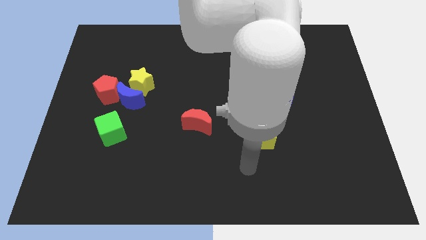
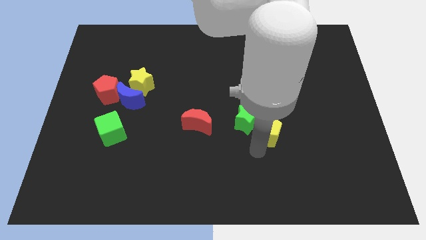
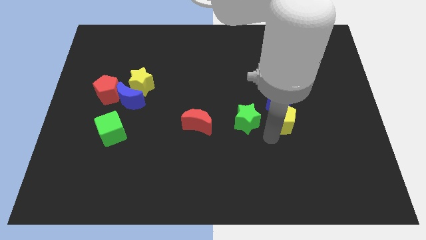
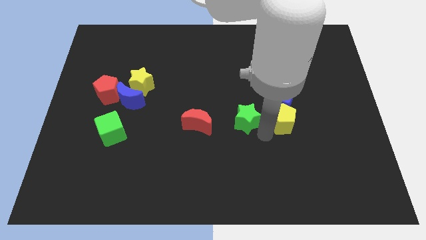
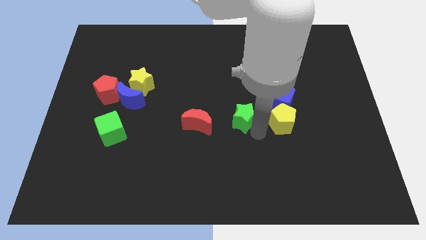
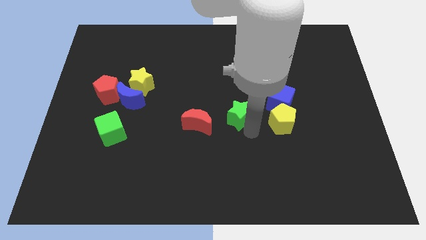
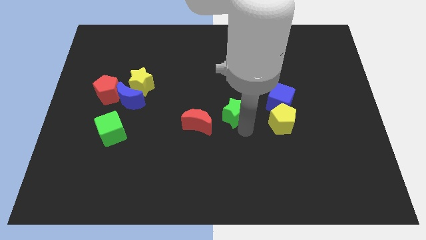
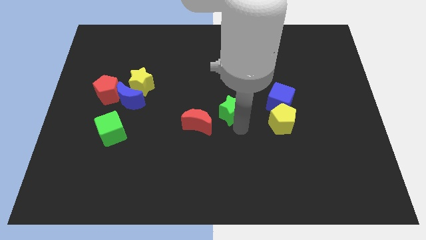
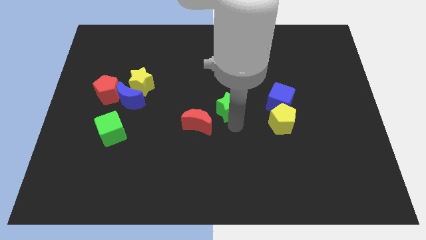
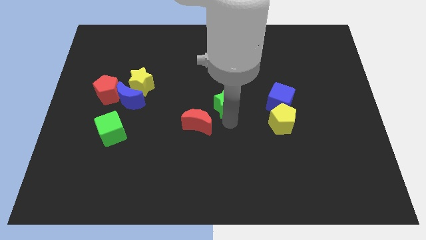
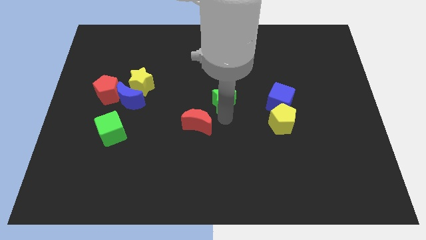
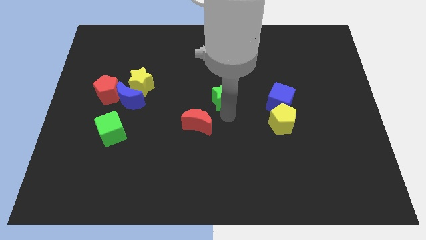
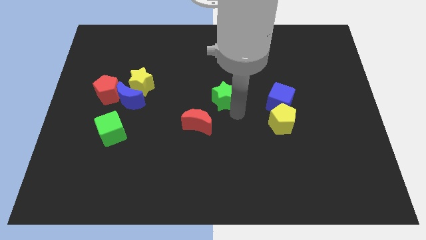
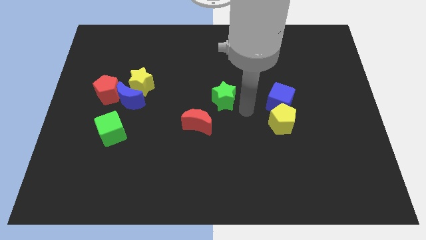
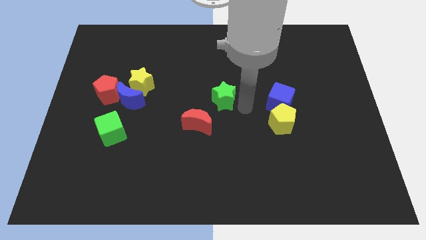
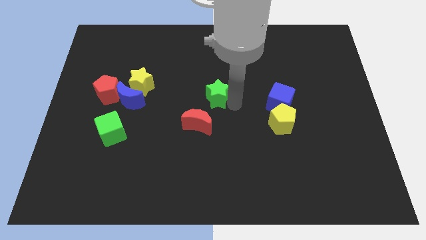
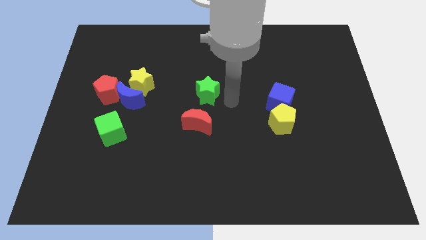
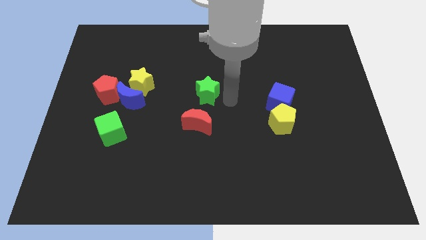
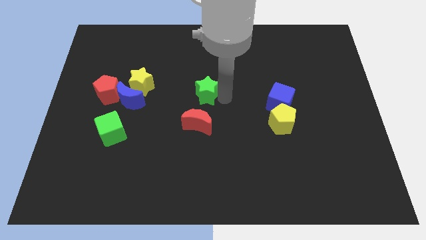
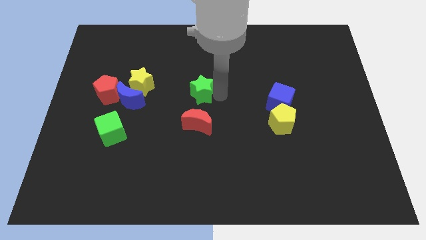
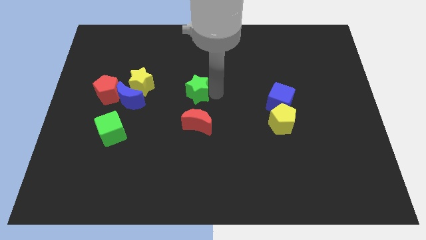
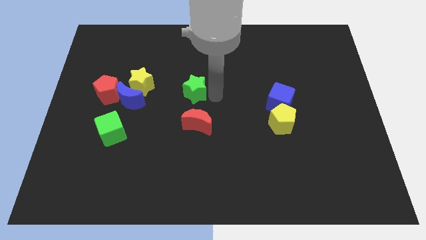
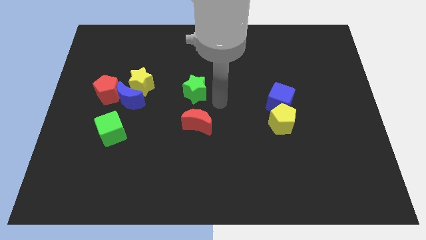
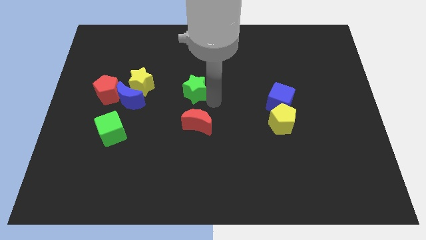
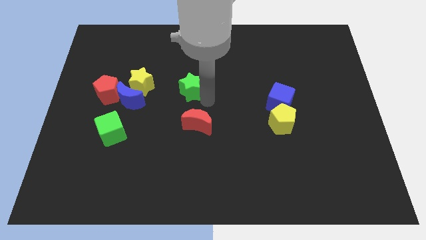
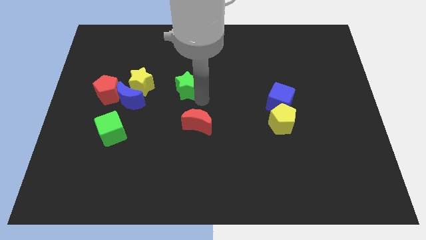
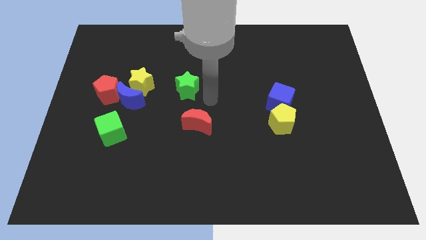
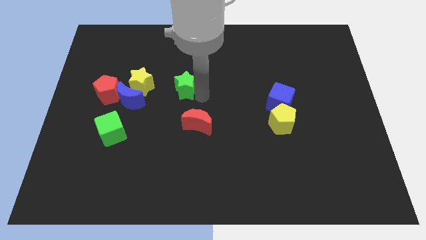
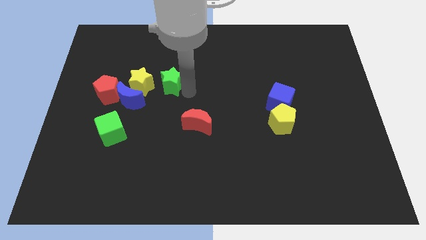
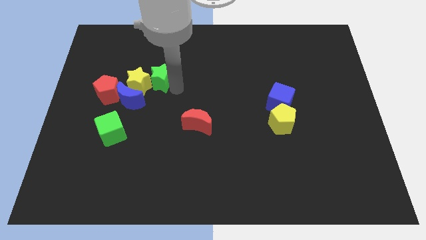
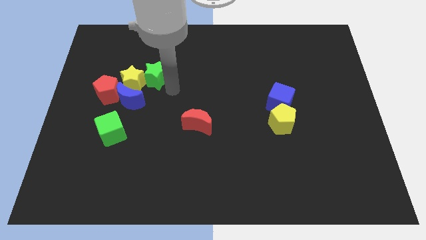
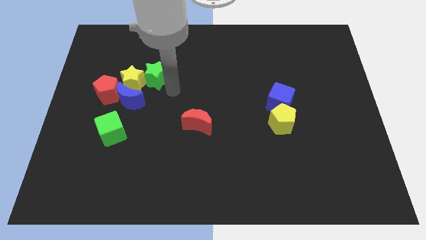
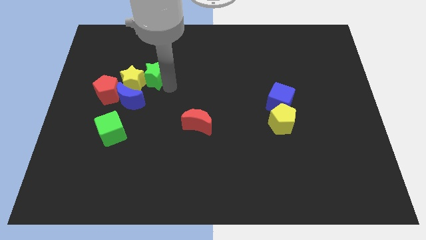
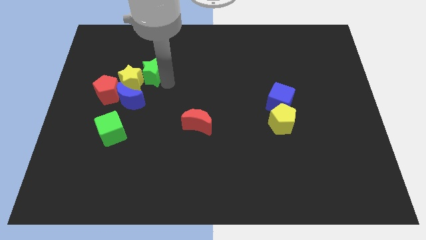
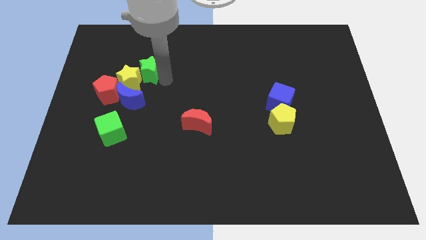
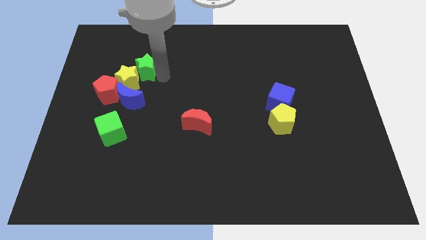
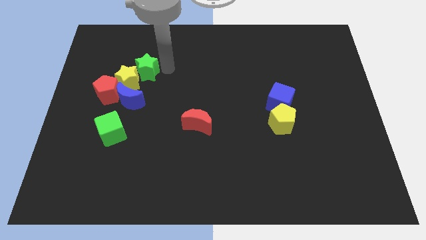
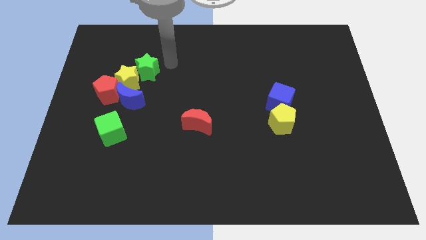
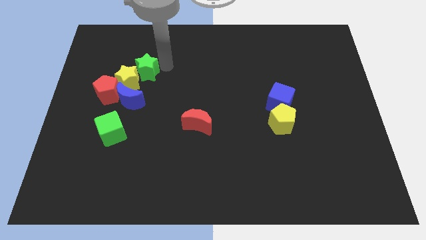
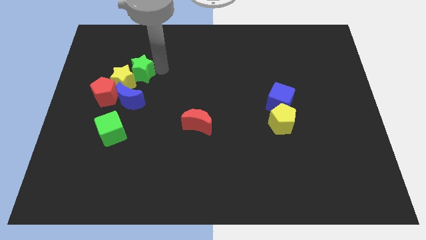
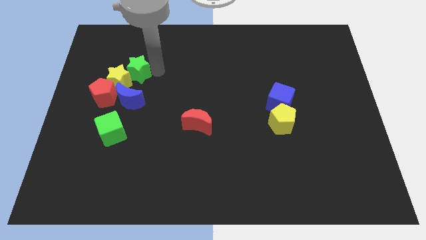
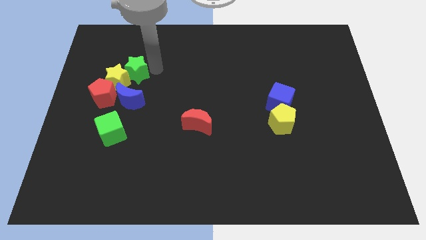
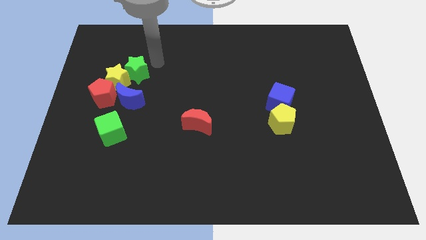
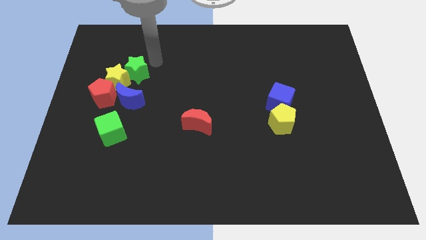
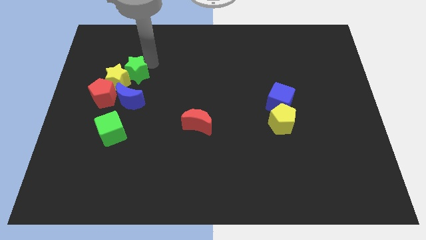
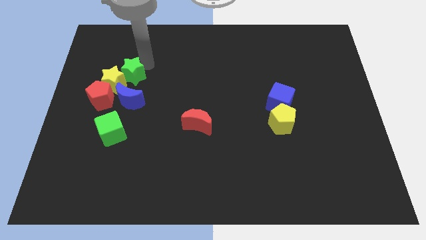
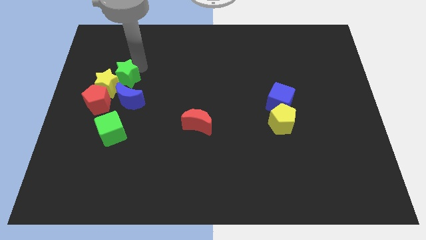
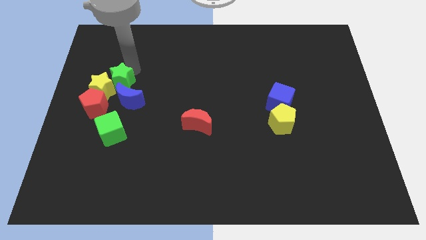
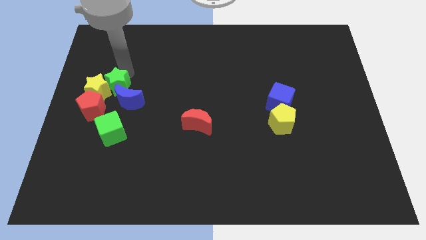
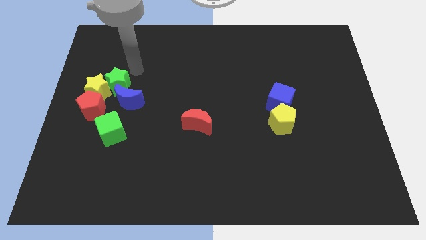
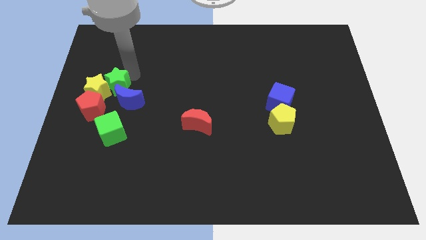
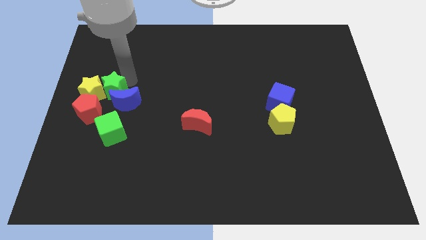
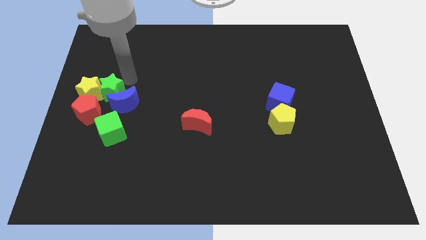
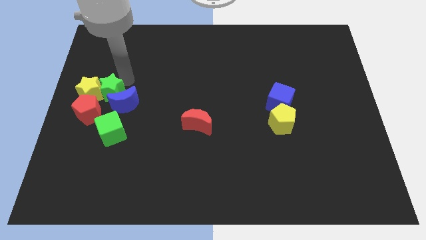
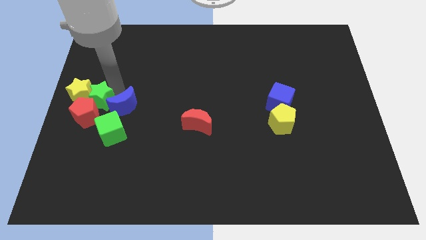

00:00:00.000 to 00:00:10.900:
slide the green star close to the red pentagon

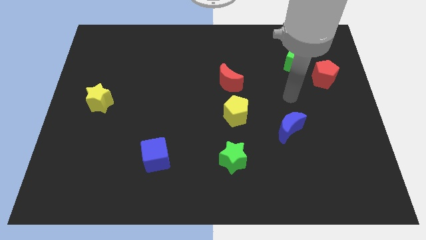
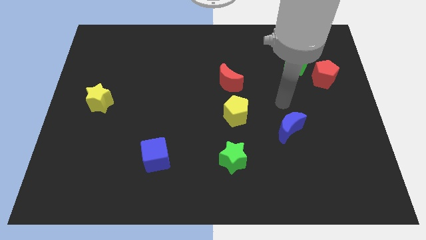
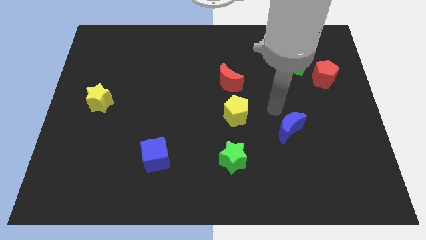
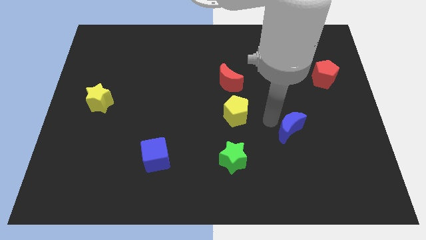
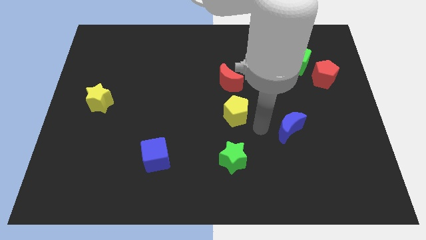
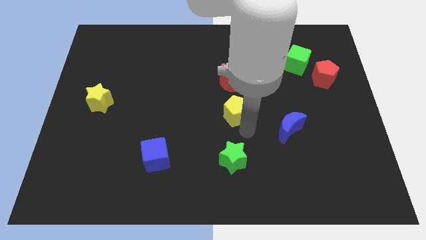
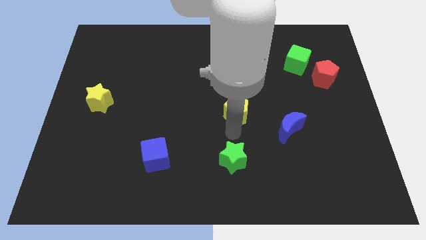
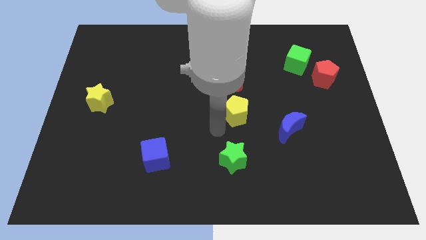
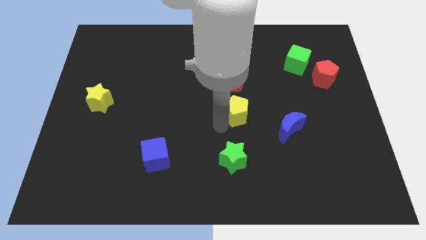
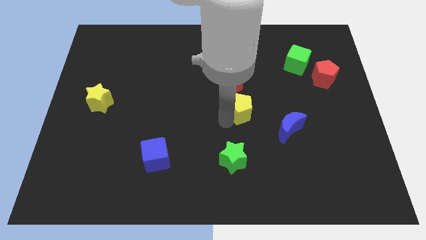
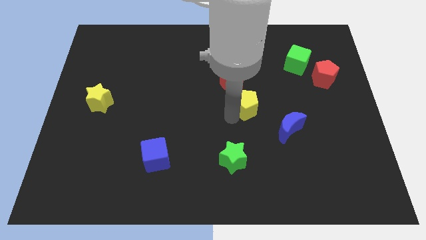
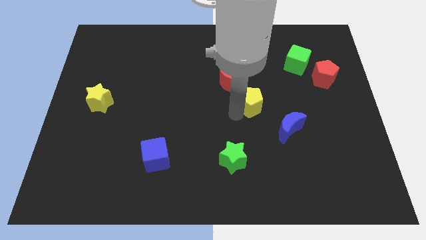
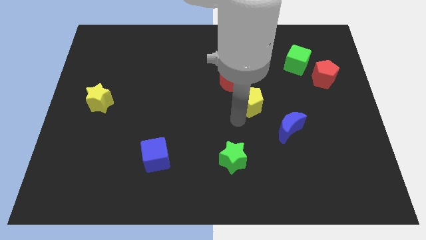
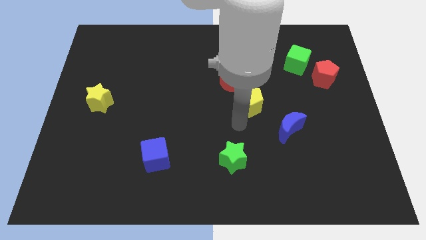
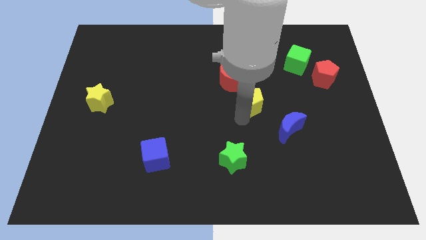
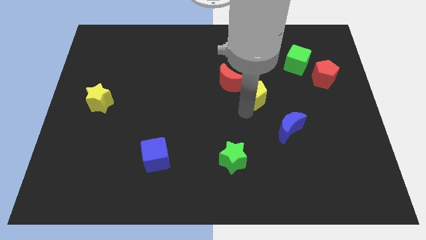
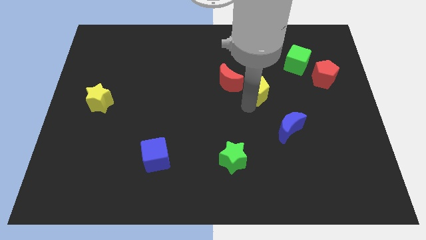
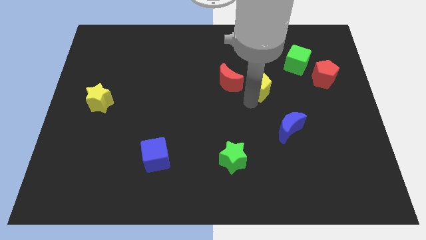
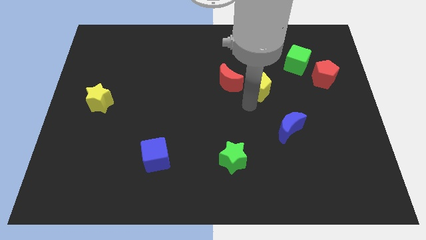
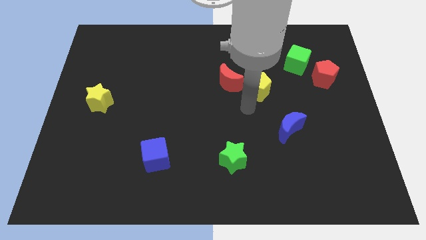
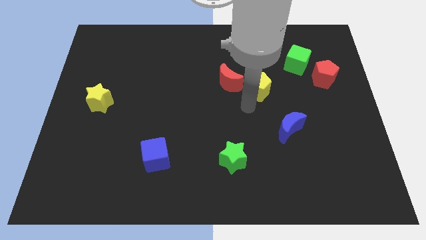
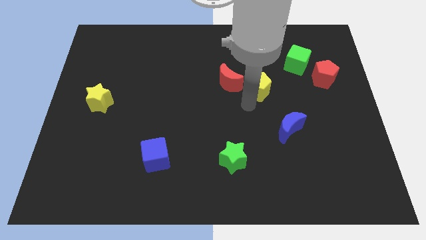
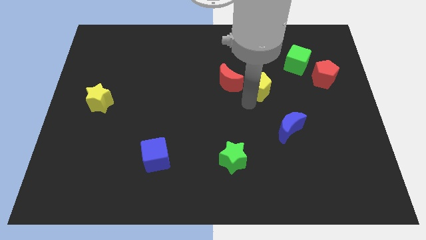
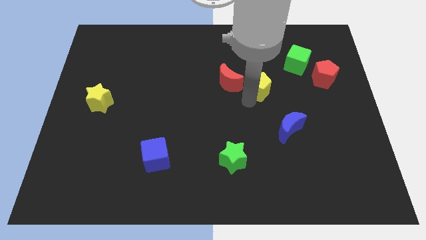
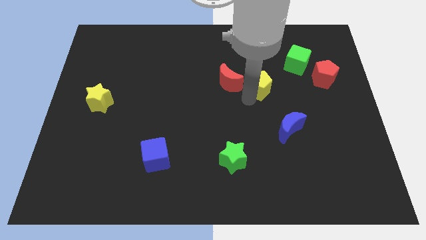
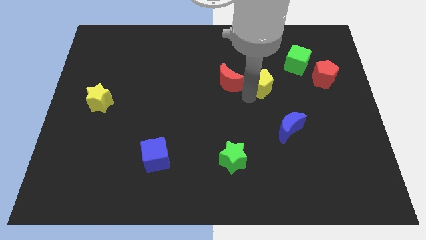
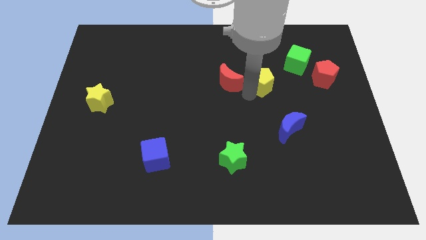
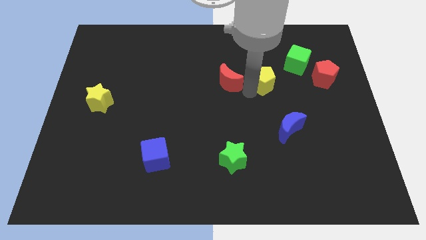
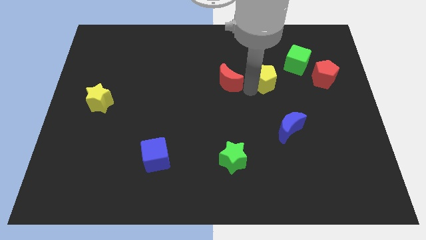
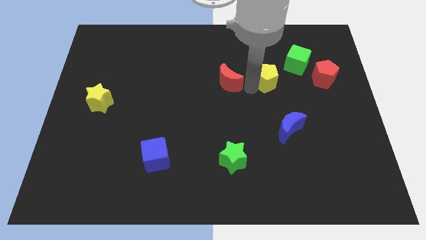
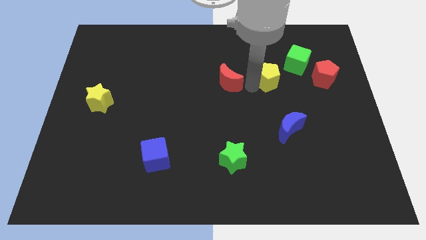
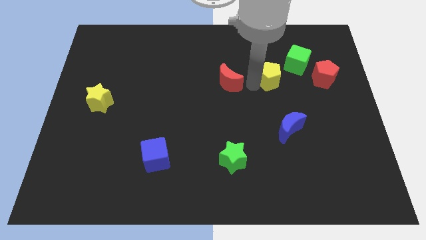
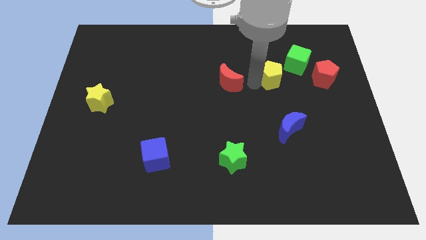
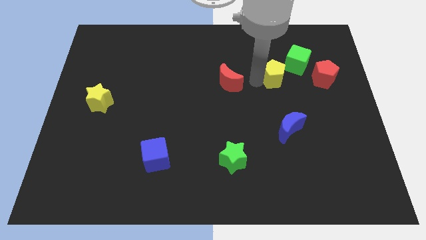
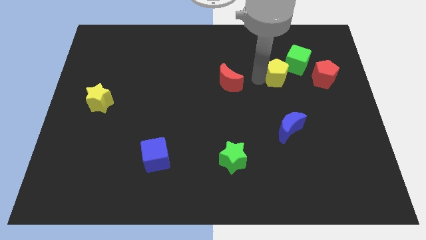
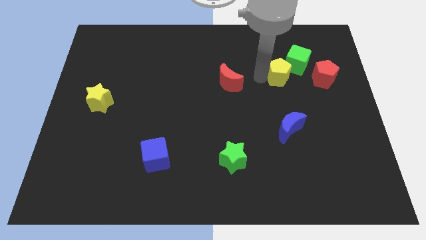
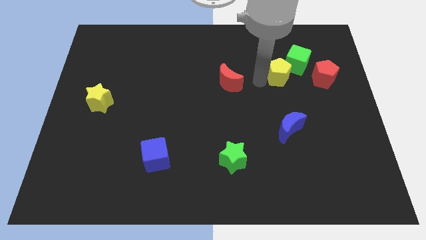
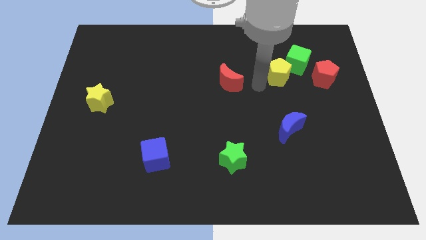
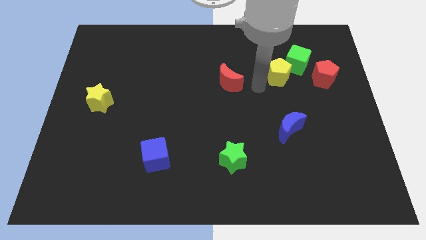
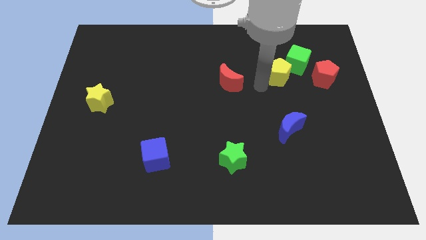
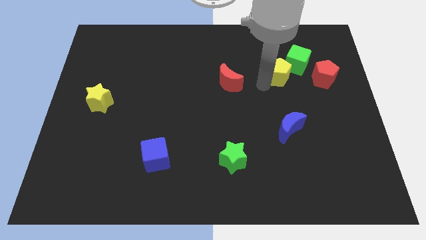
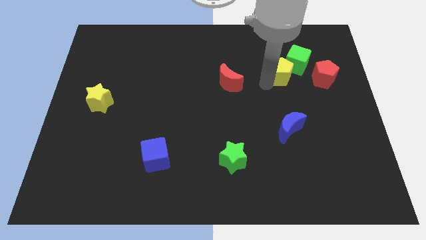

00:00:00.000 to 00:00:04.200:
move the yellow pentagon next to the green cube
